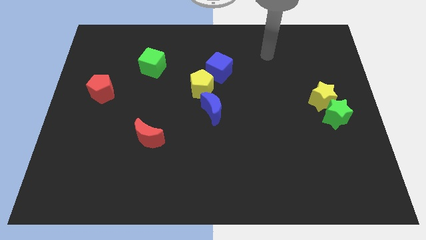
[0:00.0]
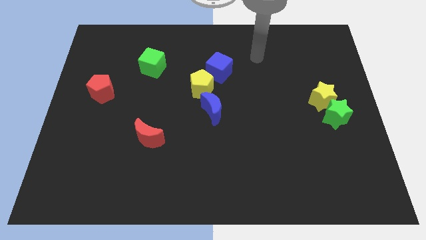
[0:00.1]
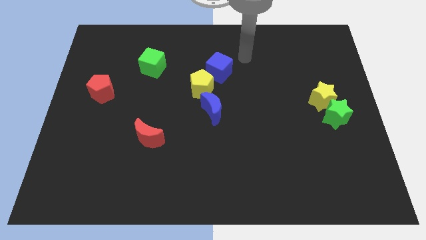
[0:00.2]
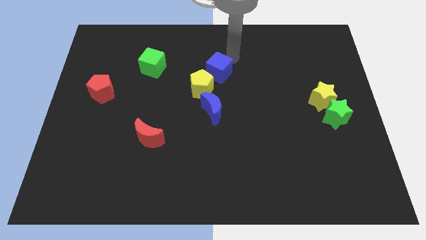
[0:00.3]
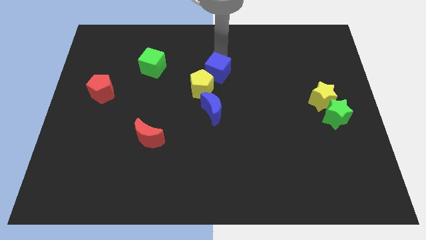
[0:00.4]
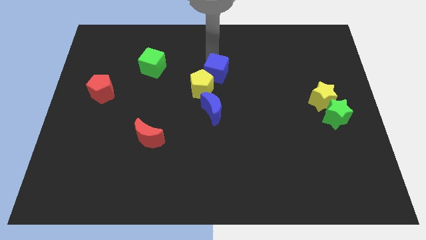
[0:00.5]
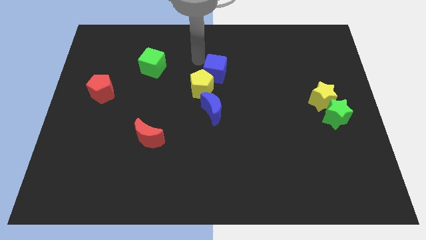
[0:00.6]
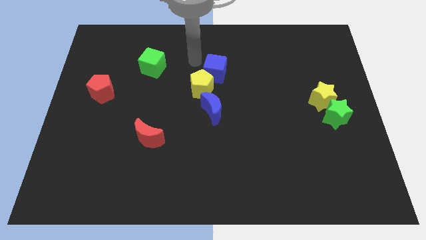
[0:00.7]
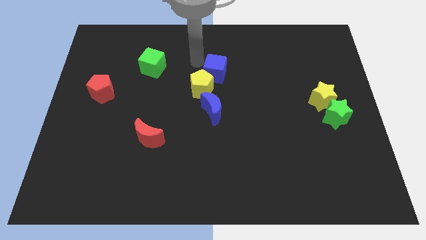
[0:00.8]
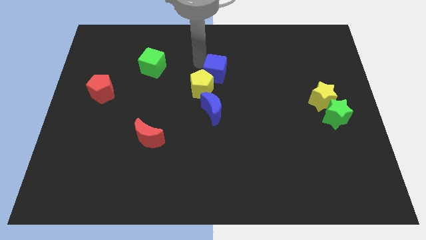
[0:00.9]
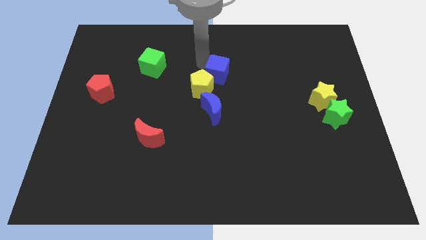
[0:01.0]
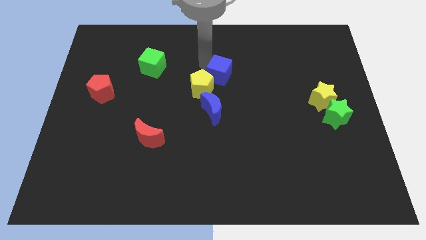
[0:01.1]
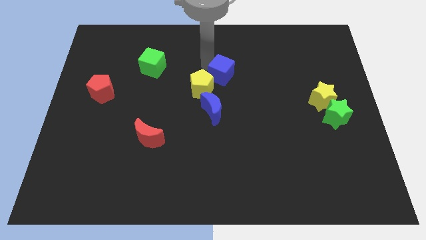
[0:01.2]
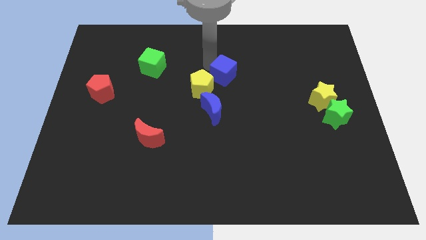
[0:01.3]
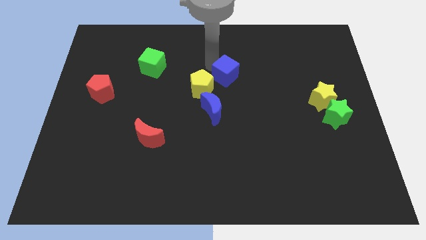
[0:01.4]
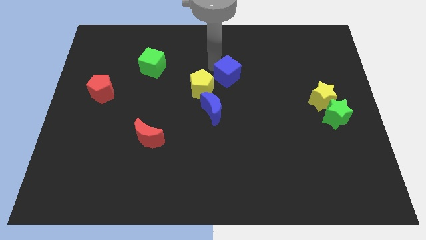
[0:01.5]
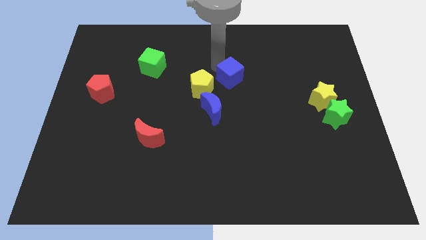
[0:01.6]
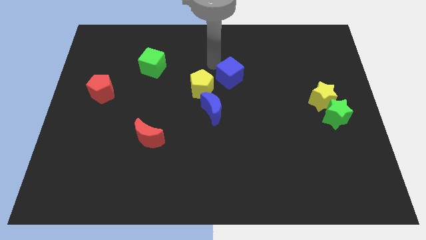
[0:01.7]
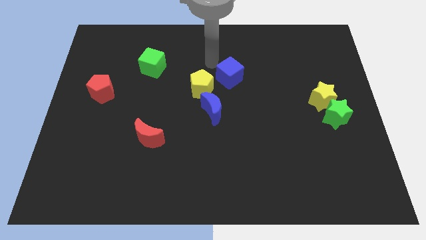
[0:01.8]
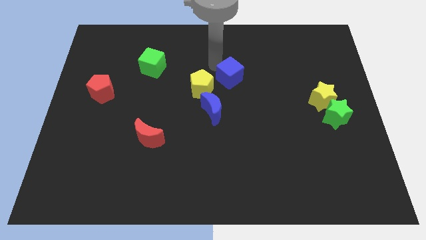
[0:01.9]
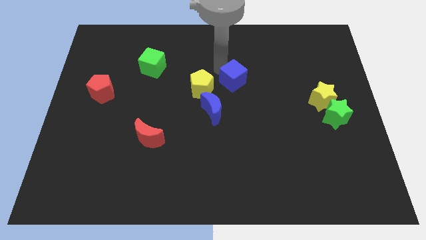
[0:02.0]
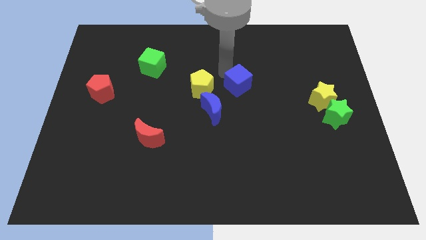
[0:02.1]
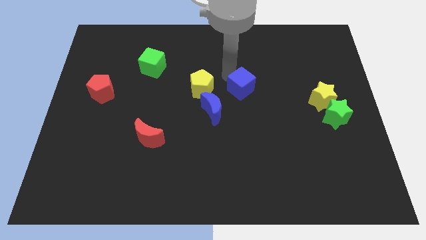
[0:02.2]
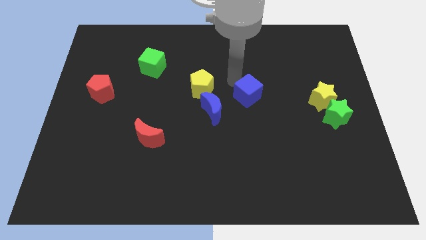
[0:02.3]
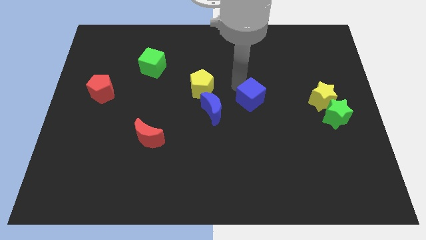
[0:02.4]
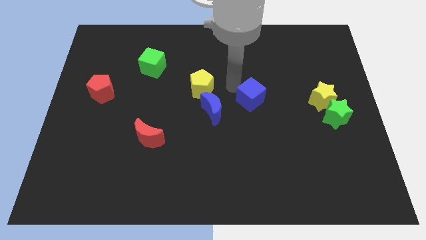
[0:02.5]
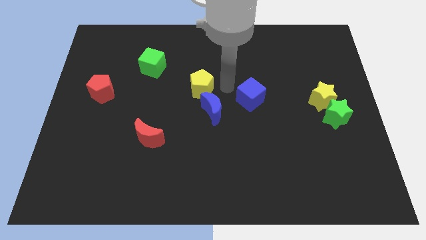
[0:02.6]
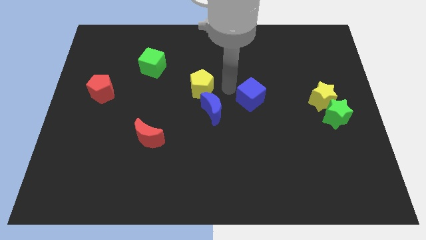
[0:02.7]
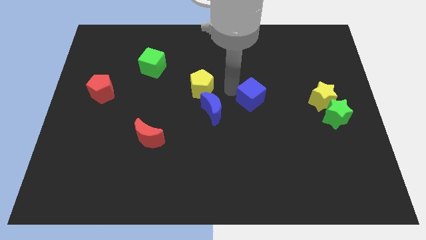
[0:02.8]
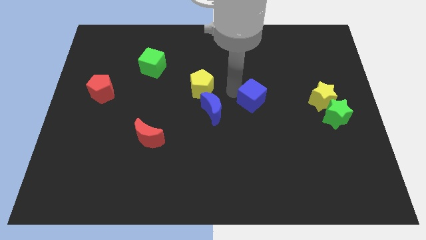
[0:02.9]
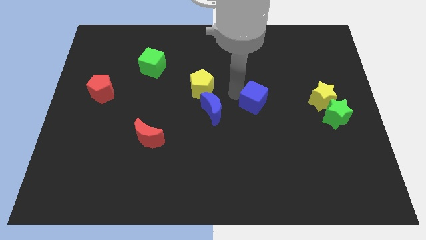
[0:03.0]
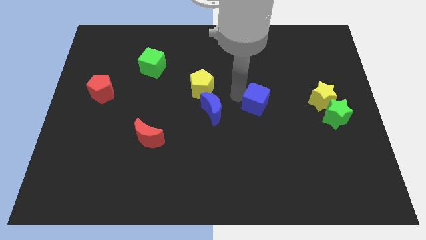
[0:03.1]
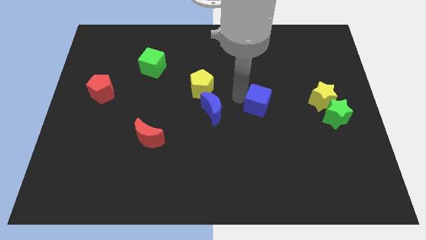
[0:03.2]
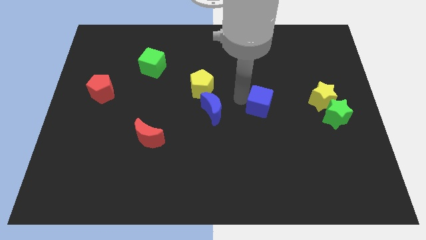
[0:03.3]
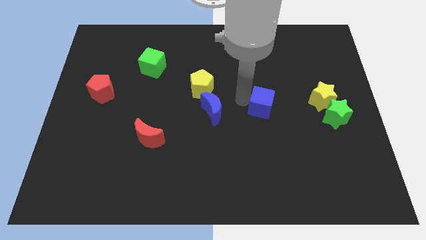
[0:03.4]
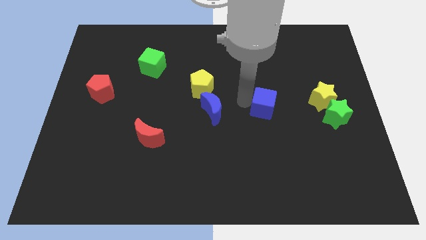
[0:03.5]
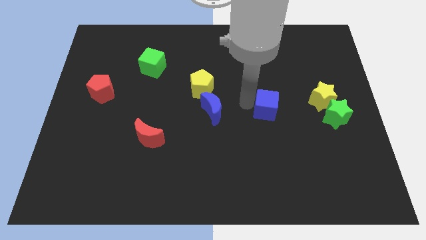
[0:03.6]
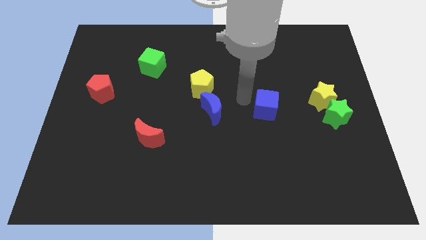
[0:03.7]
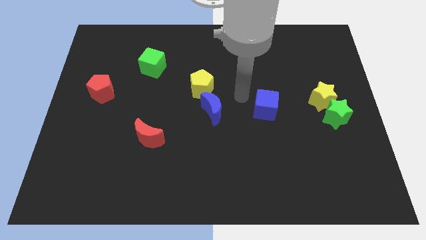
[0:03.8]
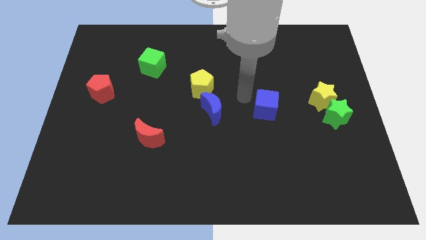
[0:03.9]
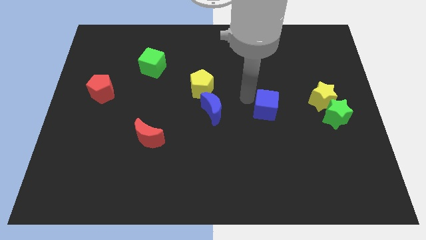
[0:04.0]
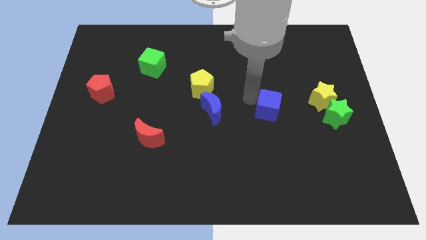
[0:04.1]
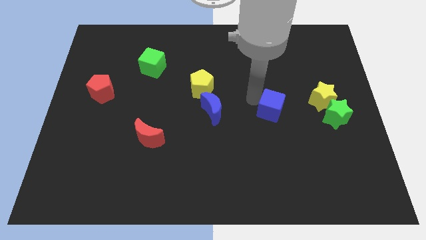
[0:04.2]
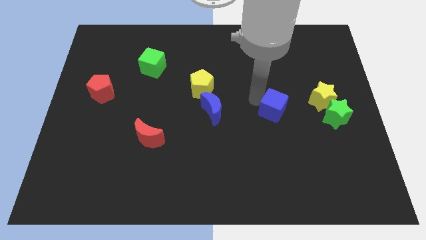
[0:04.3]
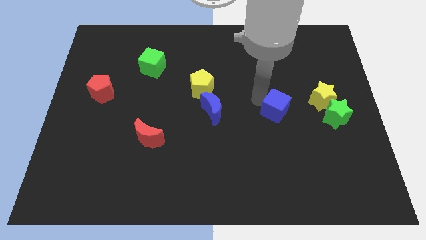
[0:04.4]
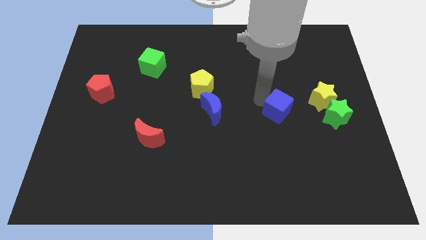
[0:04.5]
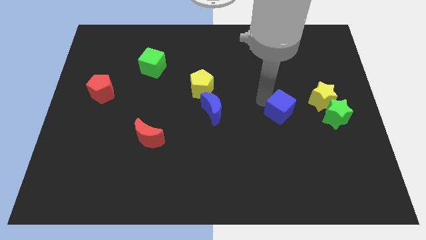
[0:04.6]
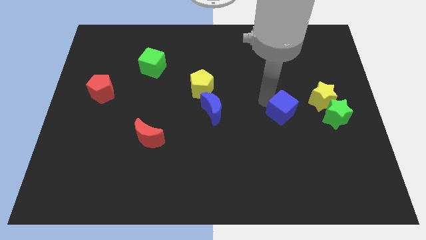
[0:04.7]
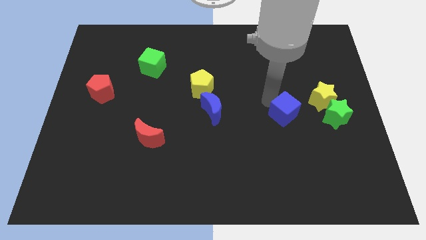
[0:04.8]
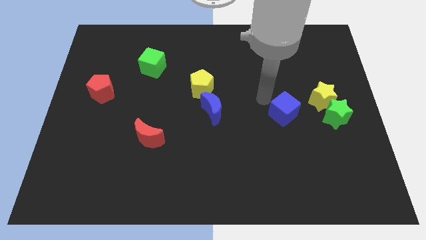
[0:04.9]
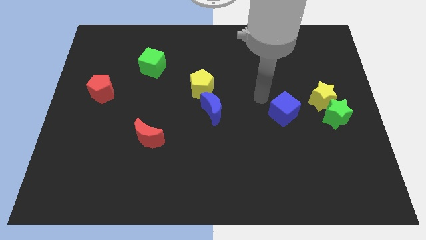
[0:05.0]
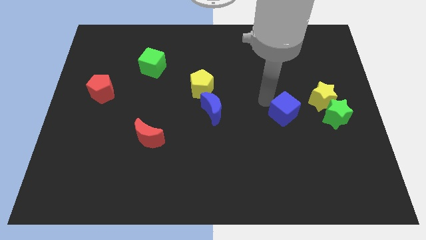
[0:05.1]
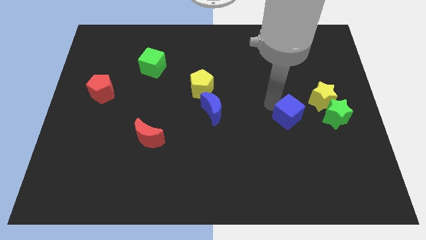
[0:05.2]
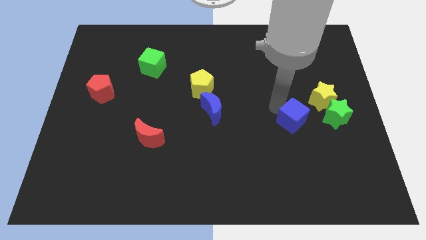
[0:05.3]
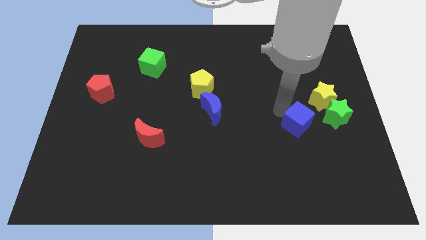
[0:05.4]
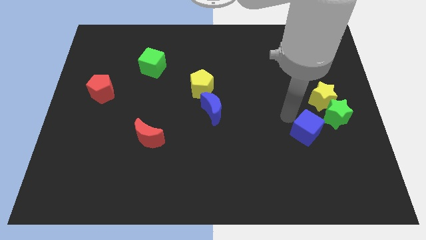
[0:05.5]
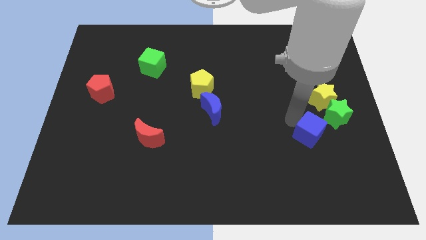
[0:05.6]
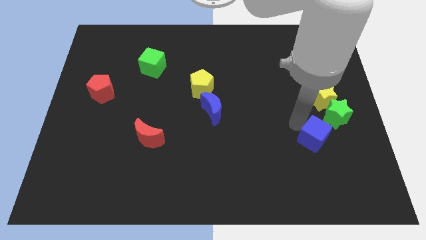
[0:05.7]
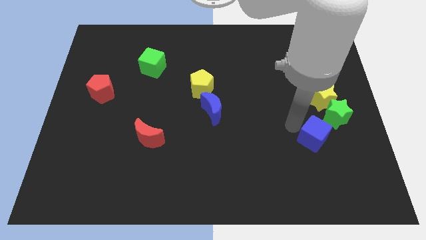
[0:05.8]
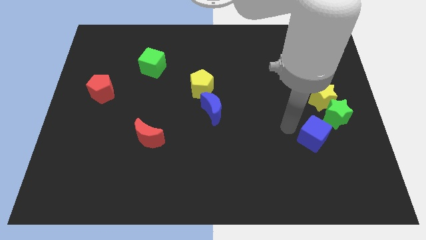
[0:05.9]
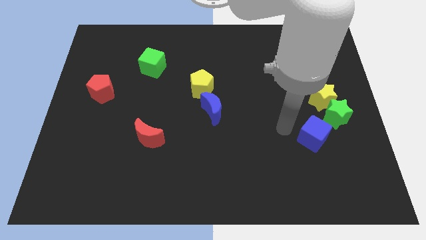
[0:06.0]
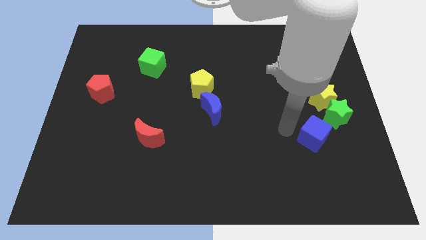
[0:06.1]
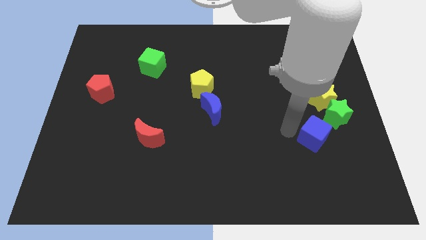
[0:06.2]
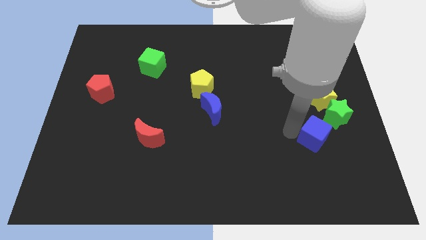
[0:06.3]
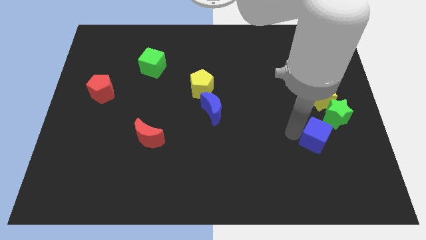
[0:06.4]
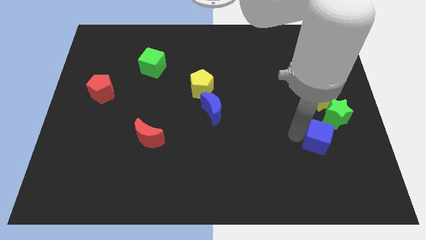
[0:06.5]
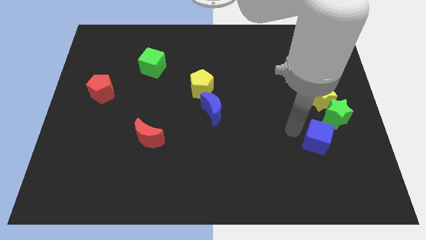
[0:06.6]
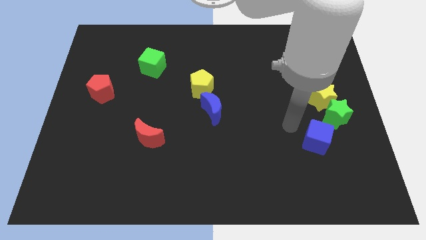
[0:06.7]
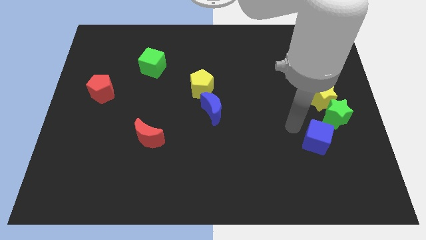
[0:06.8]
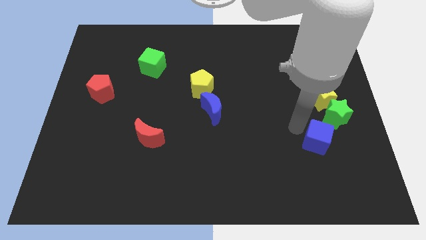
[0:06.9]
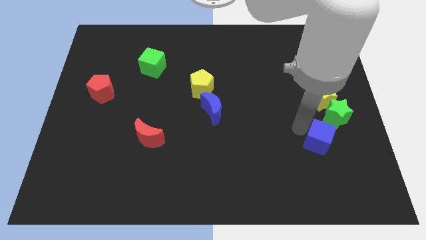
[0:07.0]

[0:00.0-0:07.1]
put the blue cube below the green star
